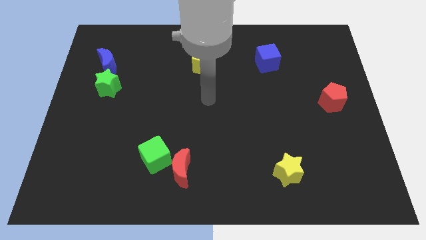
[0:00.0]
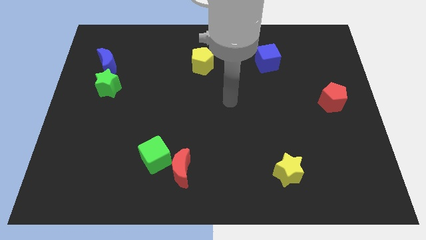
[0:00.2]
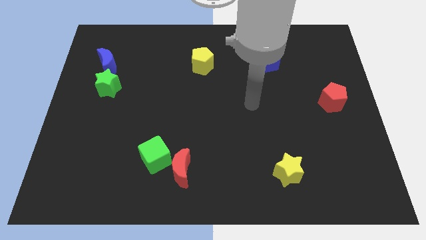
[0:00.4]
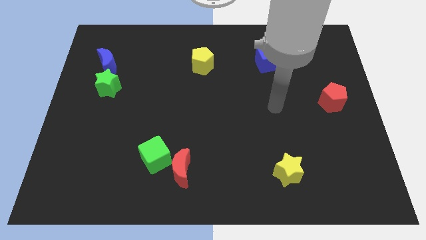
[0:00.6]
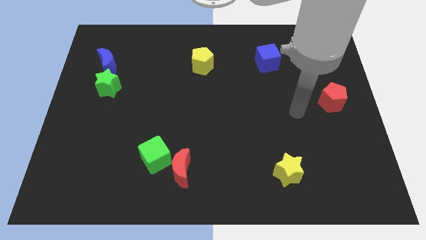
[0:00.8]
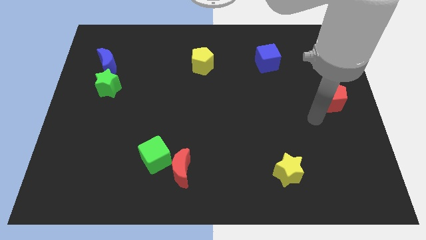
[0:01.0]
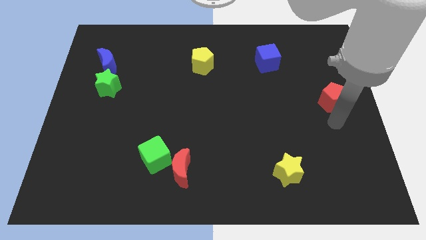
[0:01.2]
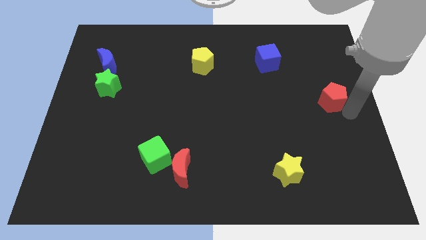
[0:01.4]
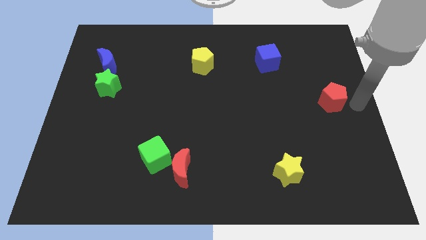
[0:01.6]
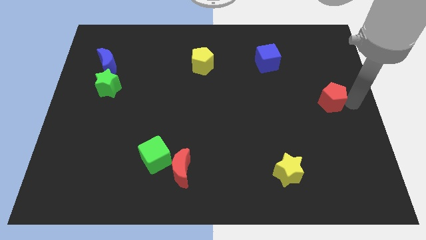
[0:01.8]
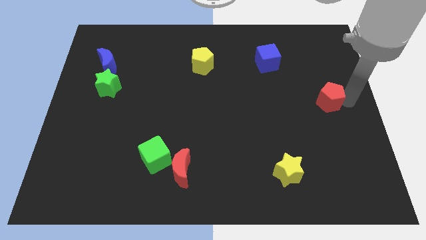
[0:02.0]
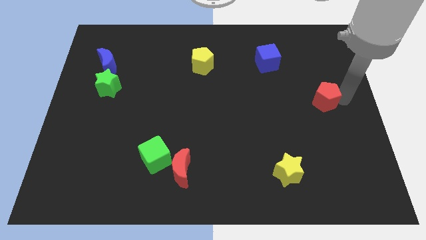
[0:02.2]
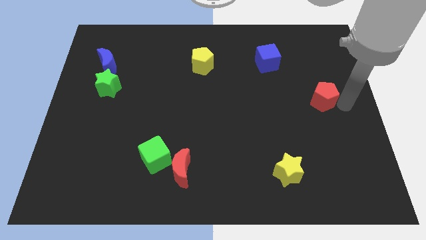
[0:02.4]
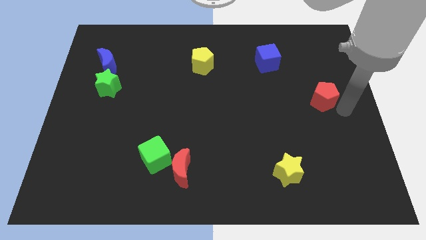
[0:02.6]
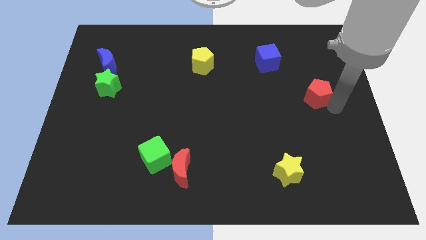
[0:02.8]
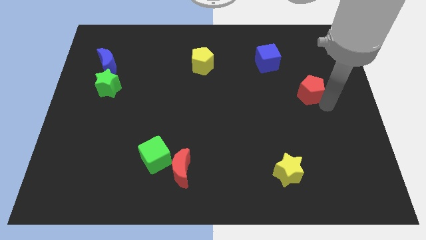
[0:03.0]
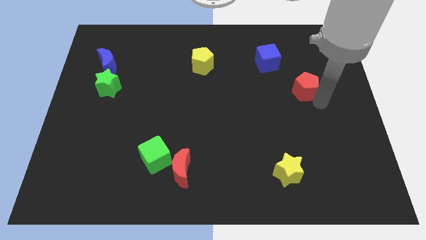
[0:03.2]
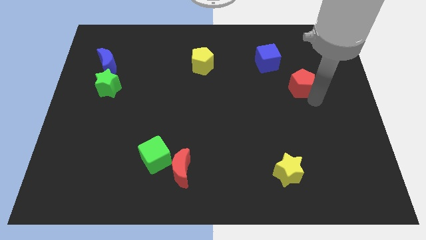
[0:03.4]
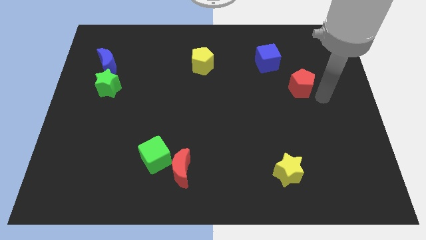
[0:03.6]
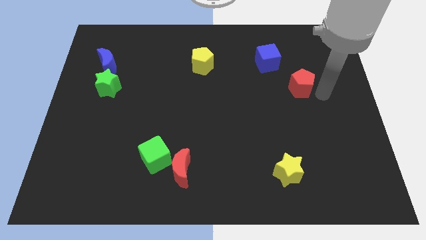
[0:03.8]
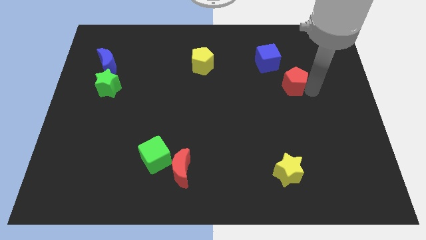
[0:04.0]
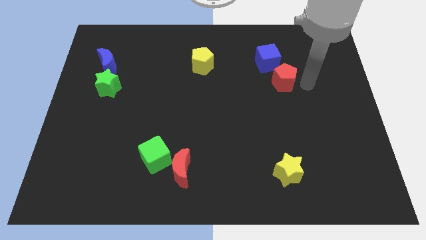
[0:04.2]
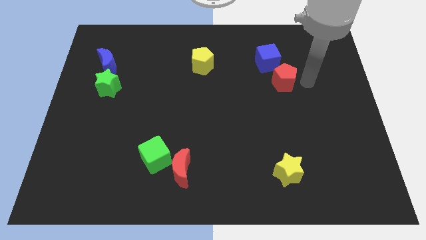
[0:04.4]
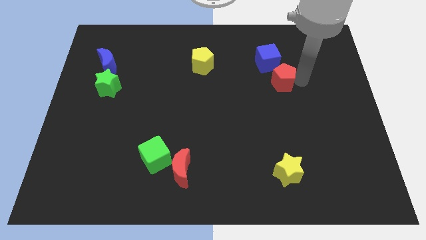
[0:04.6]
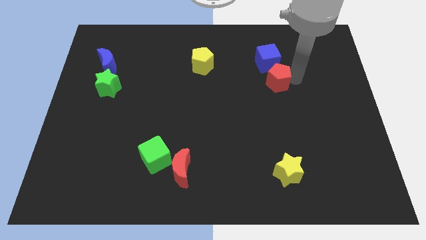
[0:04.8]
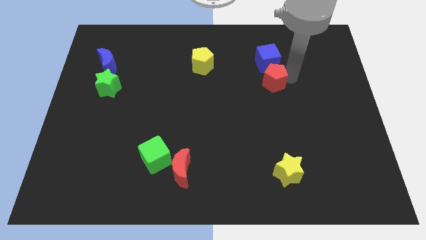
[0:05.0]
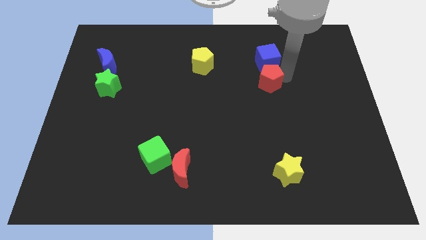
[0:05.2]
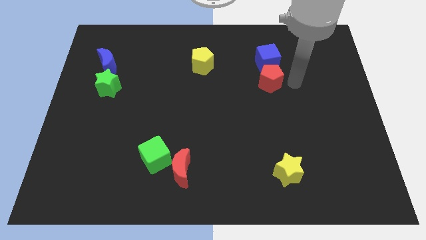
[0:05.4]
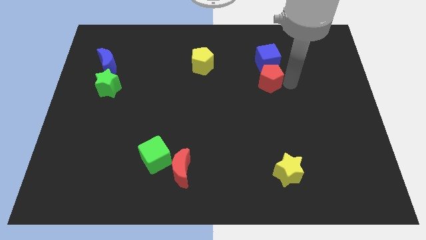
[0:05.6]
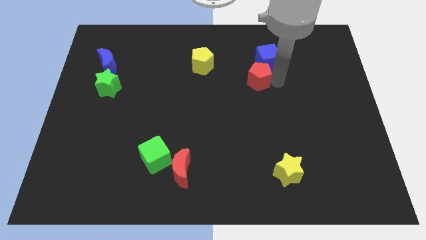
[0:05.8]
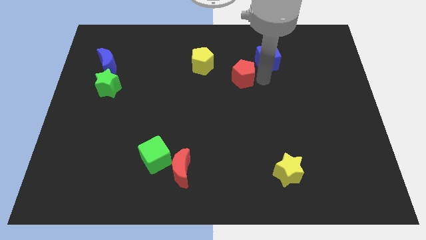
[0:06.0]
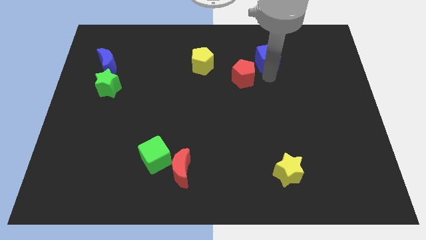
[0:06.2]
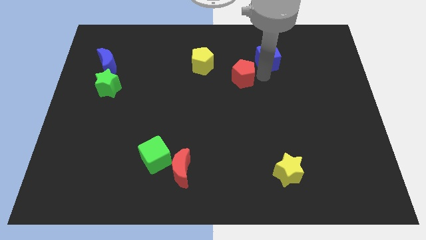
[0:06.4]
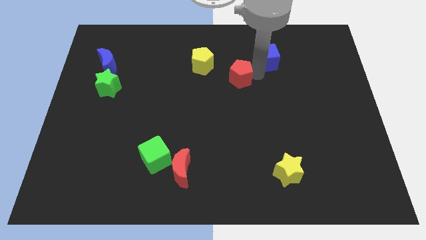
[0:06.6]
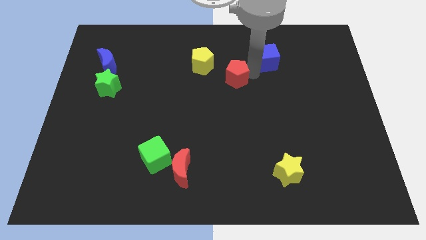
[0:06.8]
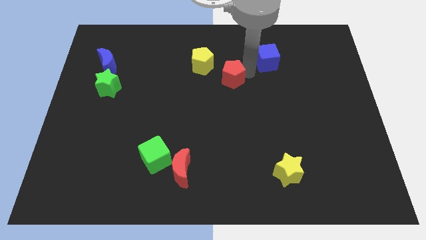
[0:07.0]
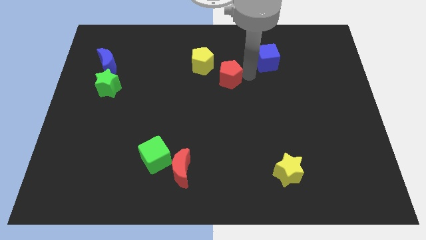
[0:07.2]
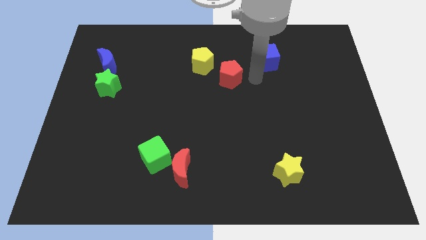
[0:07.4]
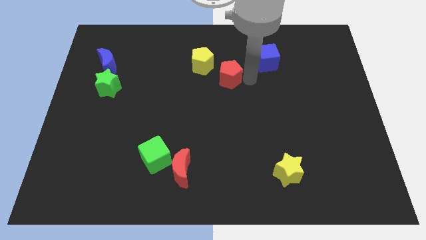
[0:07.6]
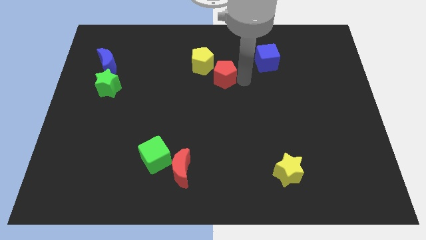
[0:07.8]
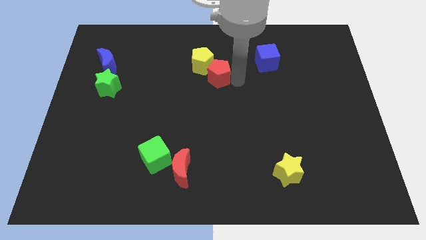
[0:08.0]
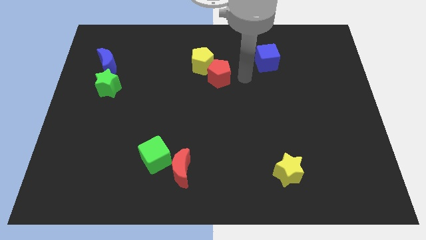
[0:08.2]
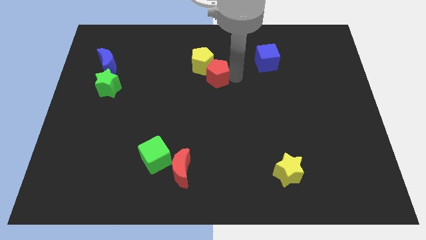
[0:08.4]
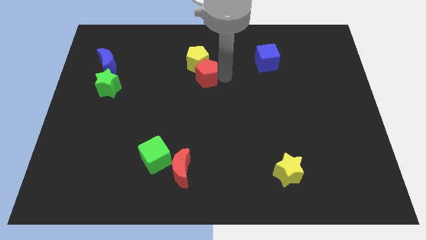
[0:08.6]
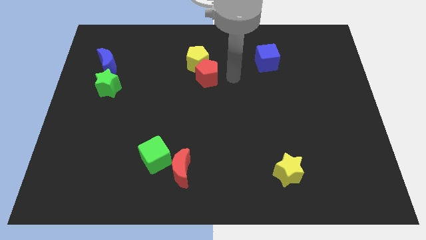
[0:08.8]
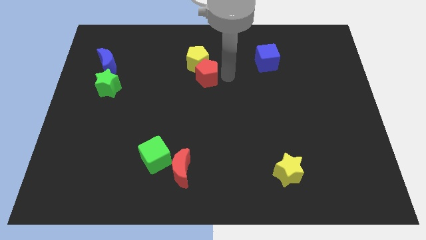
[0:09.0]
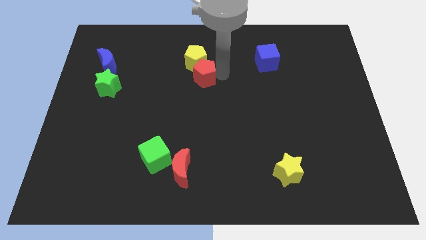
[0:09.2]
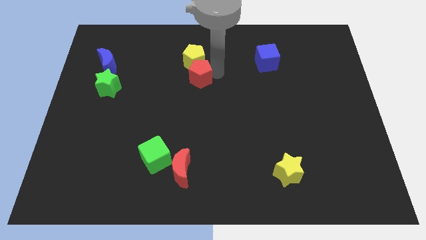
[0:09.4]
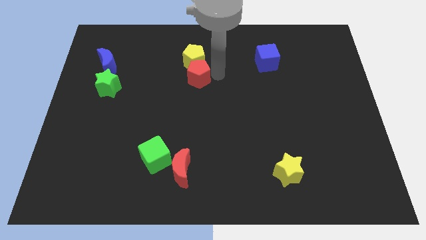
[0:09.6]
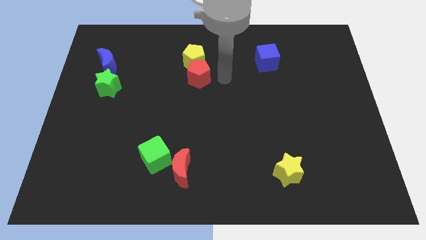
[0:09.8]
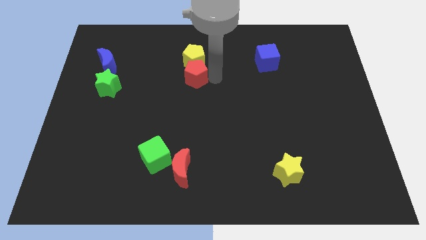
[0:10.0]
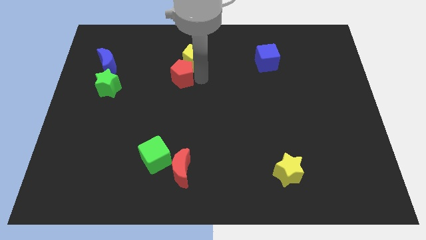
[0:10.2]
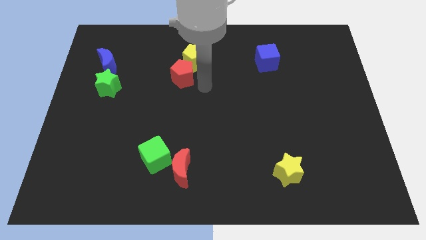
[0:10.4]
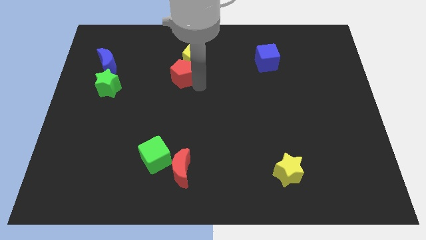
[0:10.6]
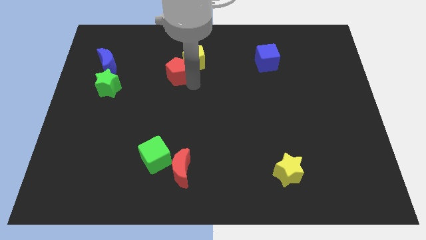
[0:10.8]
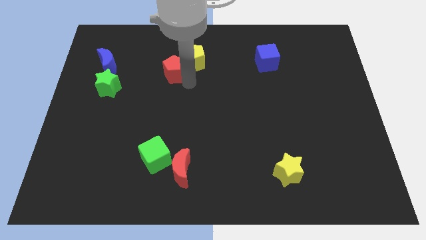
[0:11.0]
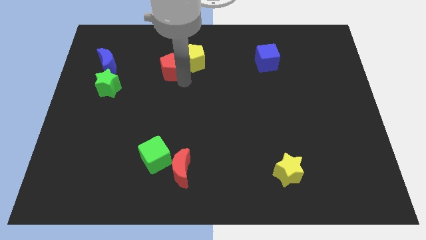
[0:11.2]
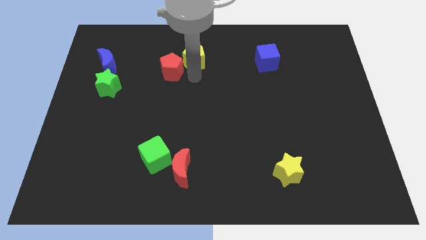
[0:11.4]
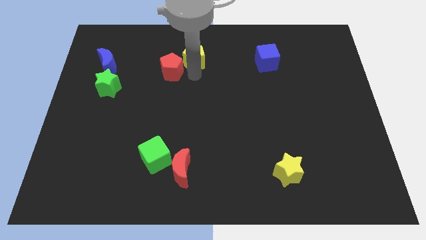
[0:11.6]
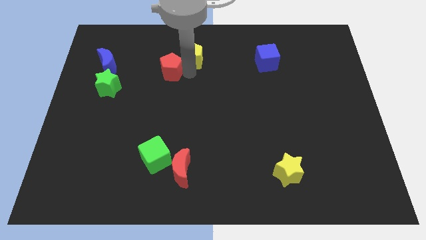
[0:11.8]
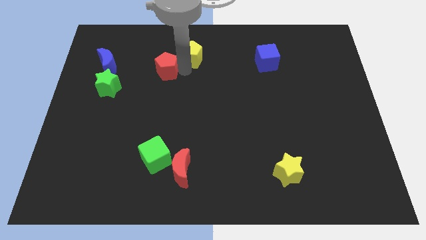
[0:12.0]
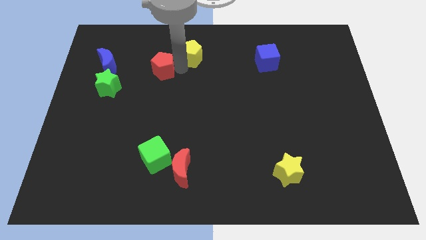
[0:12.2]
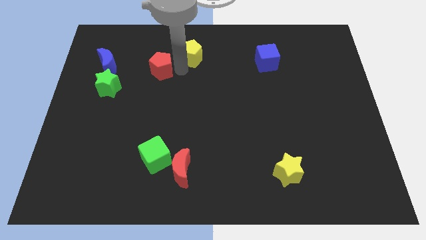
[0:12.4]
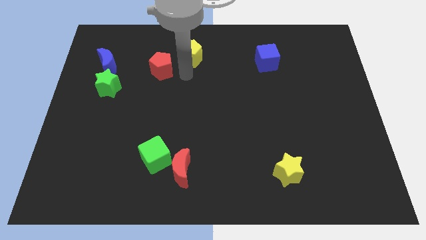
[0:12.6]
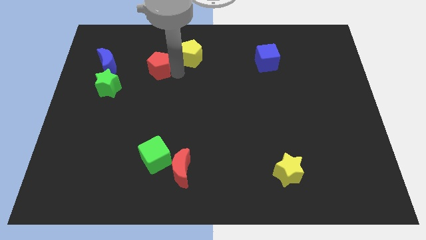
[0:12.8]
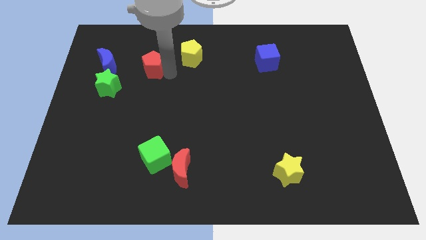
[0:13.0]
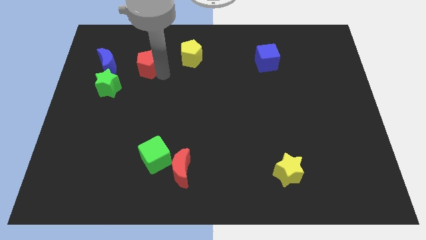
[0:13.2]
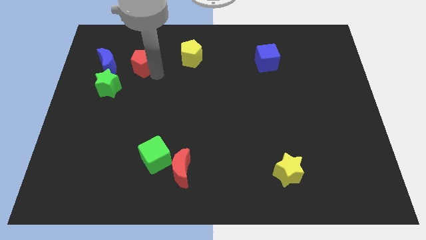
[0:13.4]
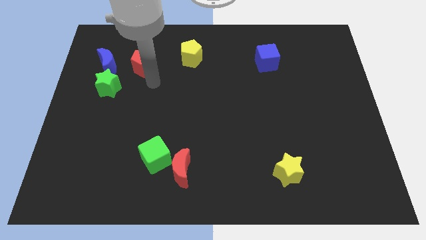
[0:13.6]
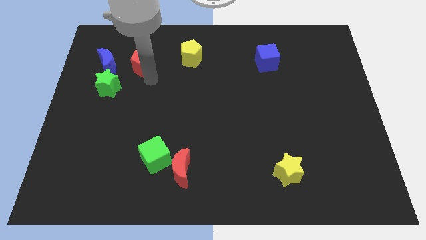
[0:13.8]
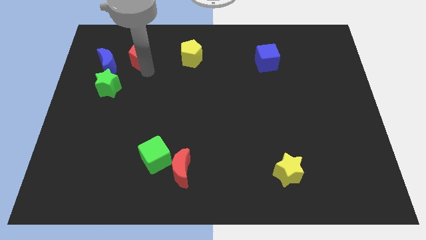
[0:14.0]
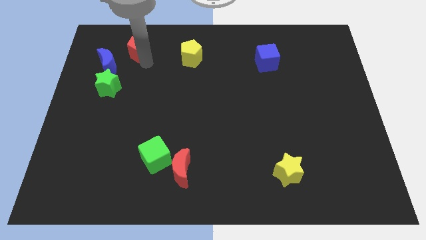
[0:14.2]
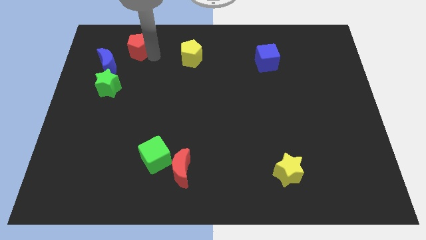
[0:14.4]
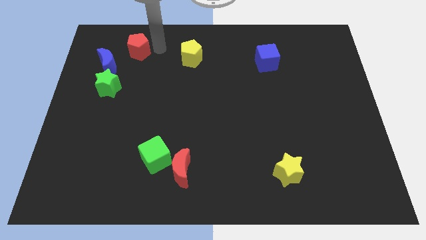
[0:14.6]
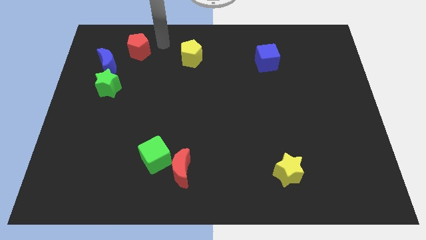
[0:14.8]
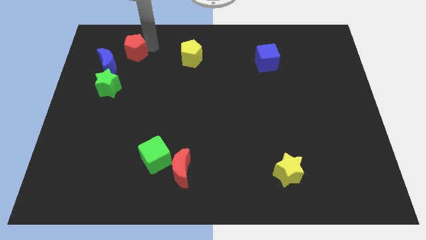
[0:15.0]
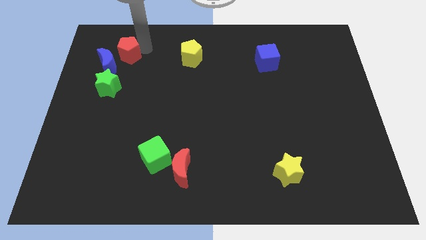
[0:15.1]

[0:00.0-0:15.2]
slide the red pentagon to the top side of the green star
